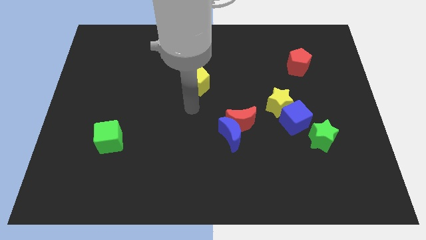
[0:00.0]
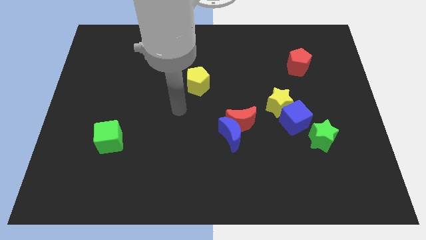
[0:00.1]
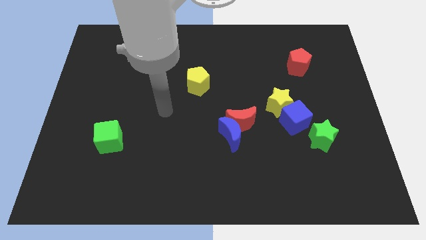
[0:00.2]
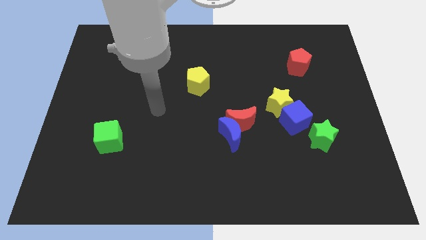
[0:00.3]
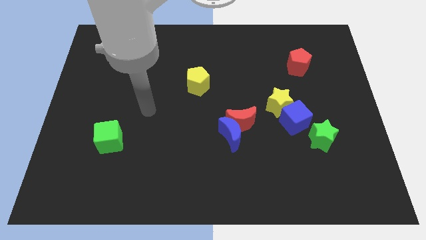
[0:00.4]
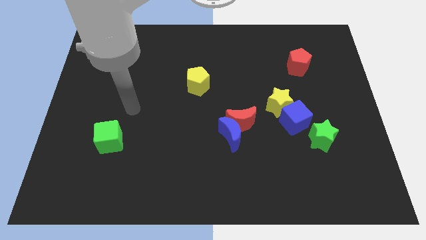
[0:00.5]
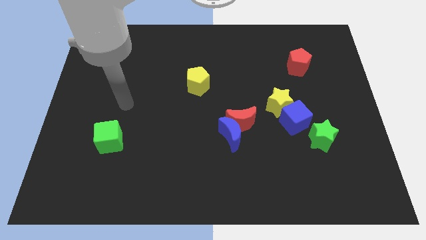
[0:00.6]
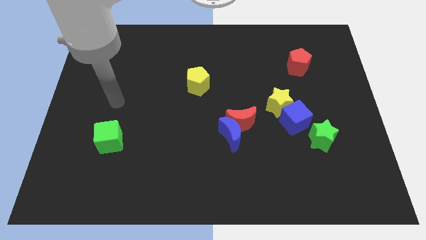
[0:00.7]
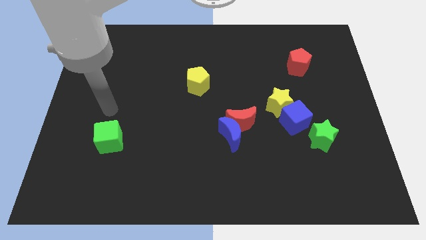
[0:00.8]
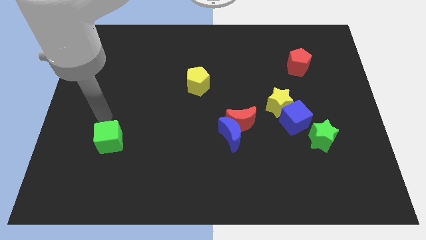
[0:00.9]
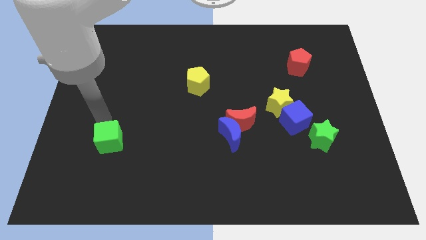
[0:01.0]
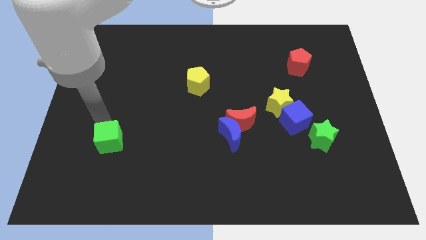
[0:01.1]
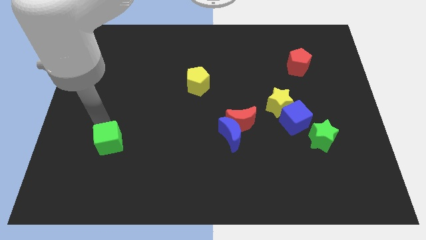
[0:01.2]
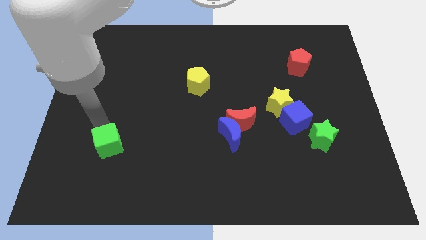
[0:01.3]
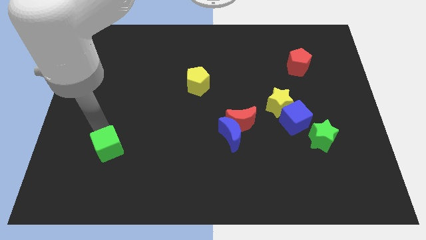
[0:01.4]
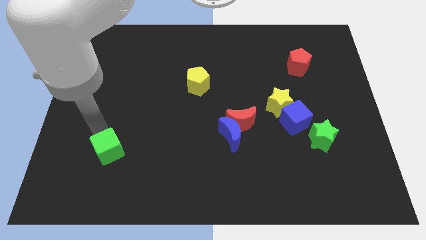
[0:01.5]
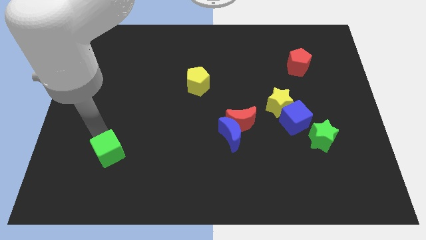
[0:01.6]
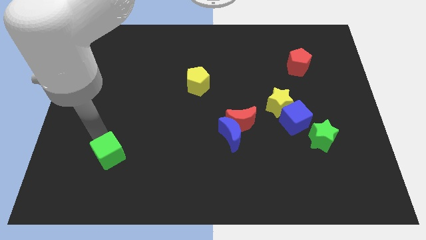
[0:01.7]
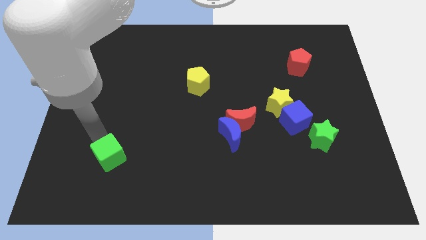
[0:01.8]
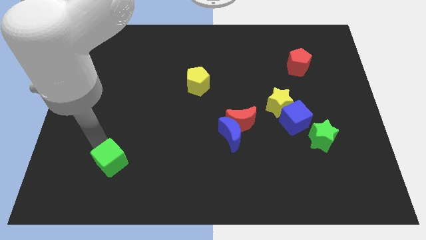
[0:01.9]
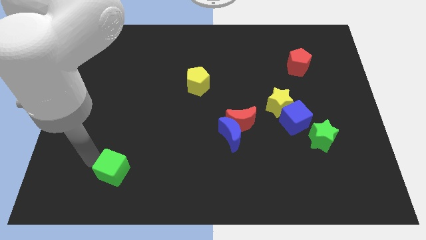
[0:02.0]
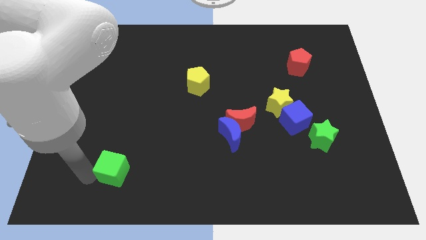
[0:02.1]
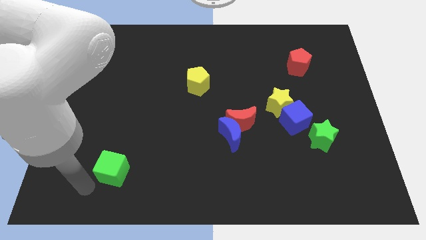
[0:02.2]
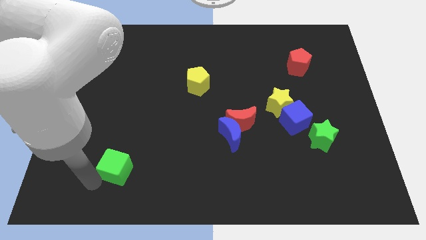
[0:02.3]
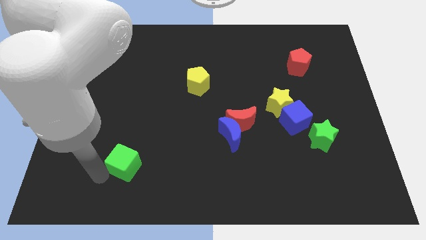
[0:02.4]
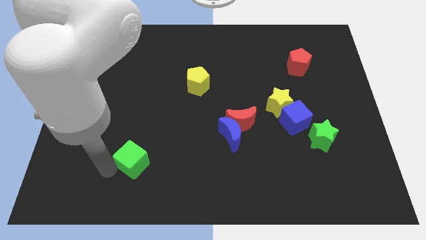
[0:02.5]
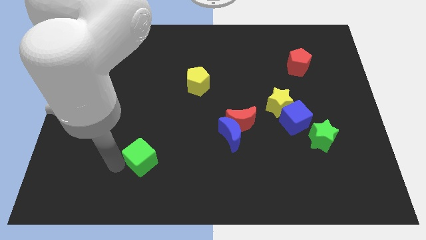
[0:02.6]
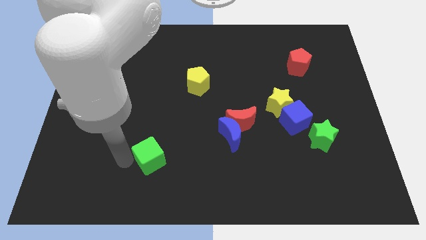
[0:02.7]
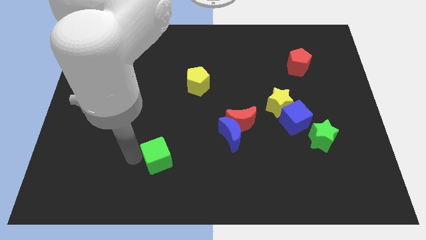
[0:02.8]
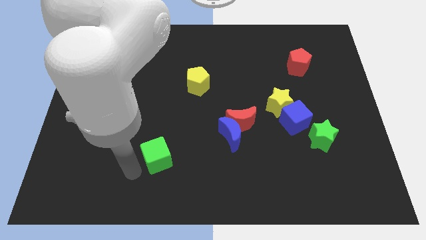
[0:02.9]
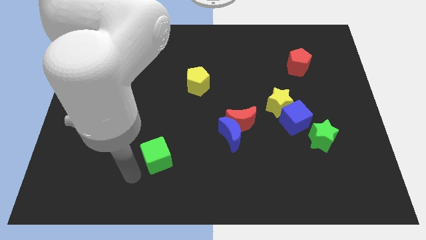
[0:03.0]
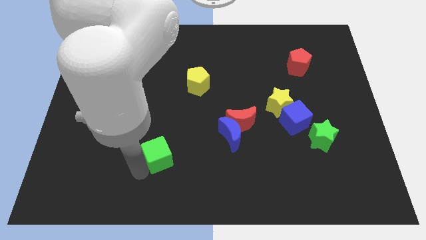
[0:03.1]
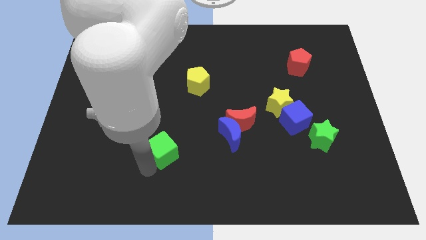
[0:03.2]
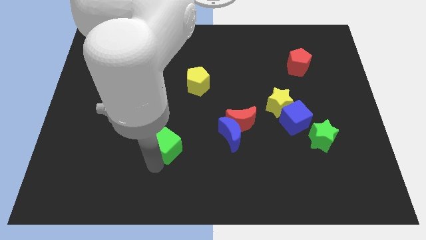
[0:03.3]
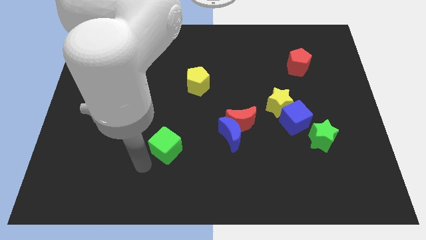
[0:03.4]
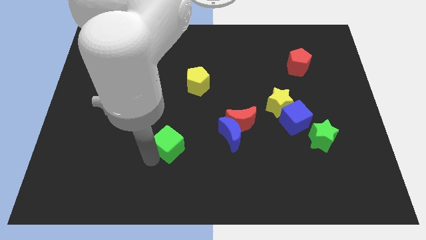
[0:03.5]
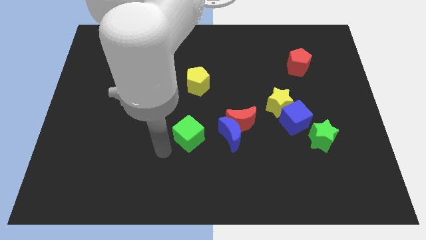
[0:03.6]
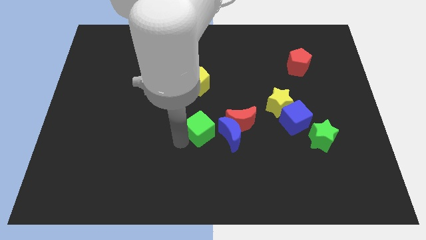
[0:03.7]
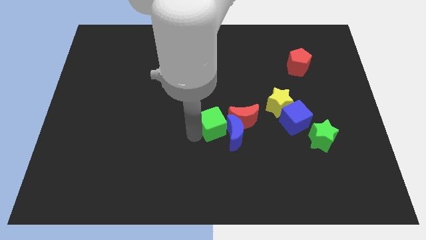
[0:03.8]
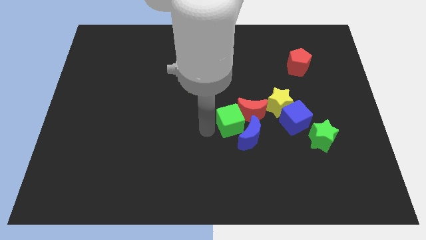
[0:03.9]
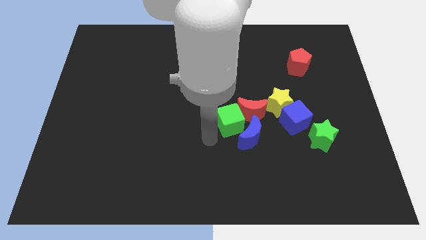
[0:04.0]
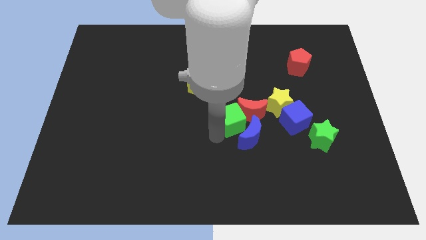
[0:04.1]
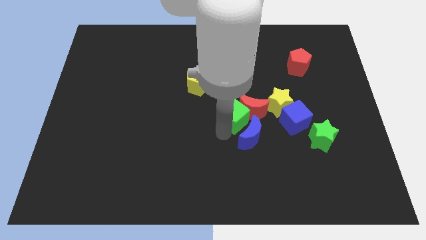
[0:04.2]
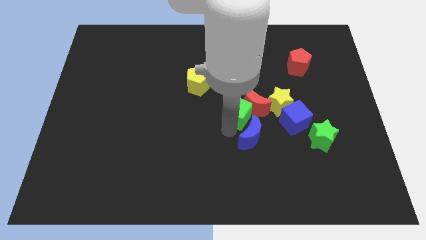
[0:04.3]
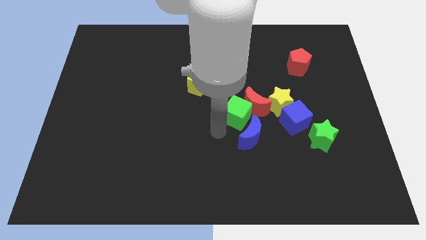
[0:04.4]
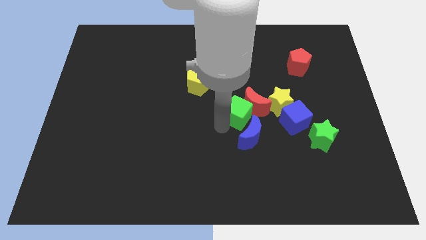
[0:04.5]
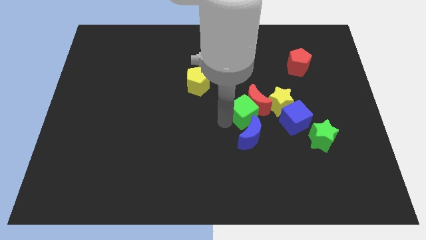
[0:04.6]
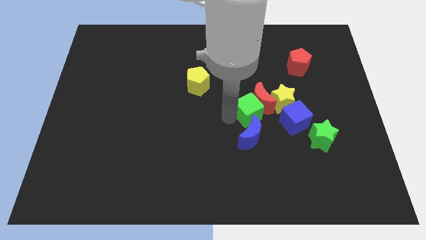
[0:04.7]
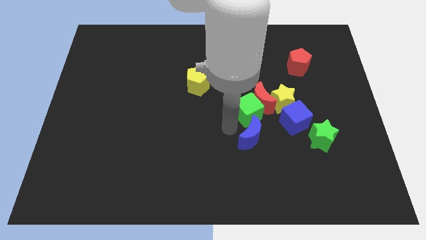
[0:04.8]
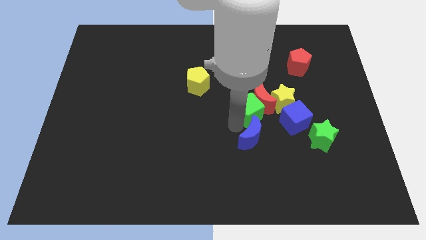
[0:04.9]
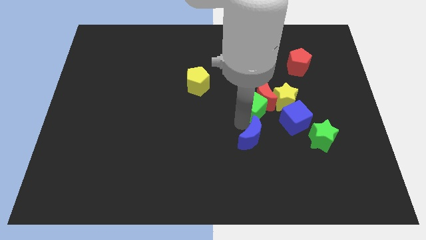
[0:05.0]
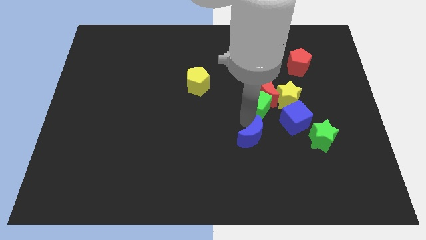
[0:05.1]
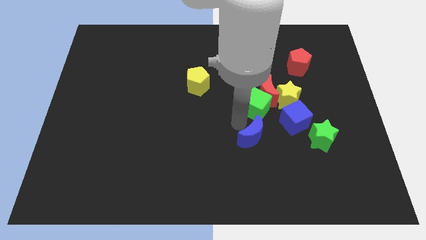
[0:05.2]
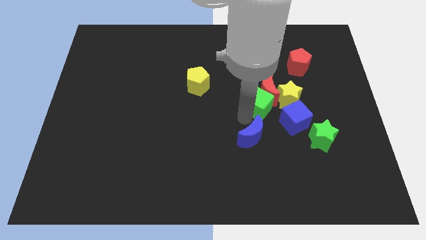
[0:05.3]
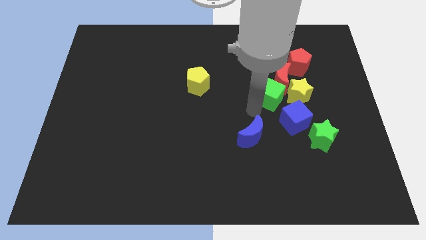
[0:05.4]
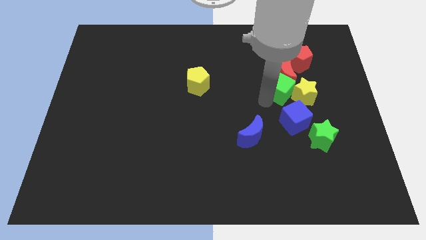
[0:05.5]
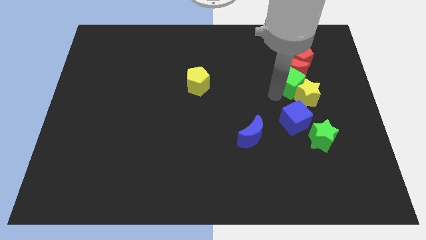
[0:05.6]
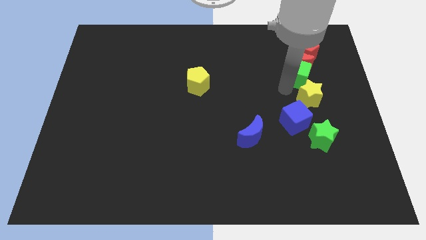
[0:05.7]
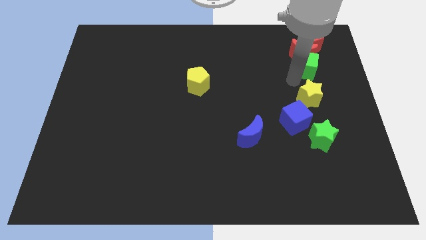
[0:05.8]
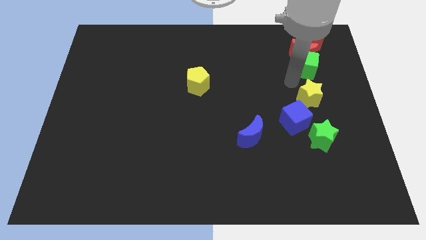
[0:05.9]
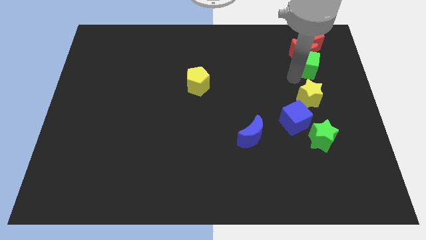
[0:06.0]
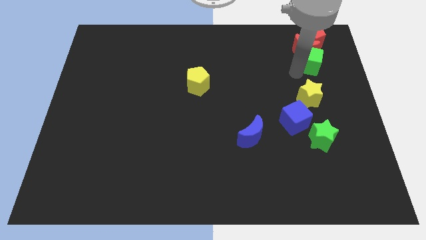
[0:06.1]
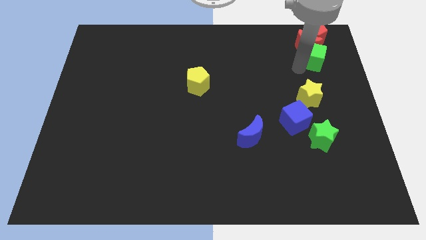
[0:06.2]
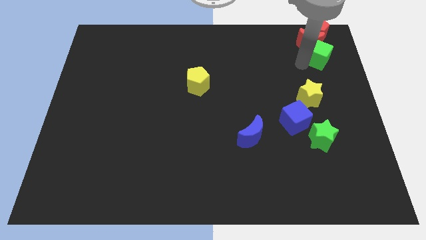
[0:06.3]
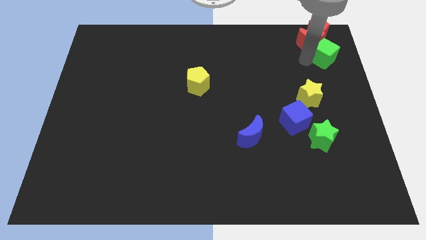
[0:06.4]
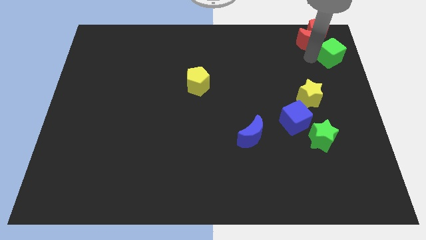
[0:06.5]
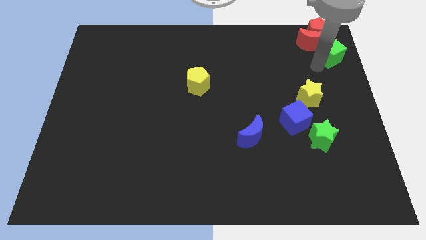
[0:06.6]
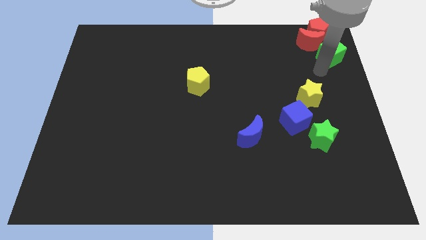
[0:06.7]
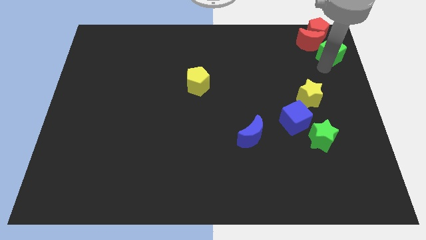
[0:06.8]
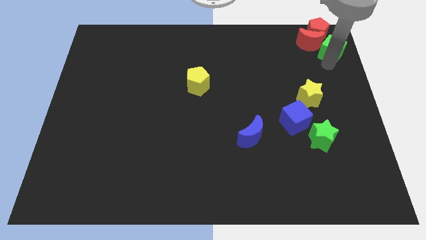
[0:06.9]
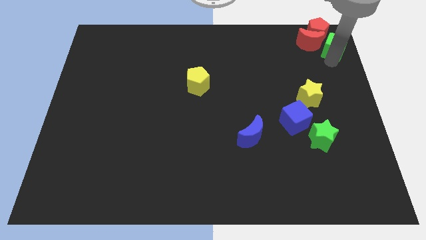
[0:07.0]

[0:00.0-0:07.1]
push the green cube to the top right
